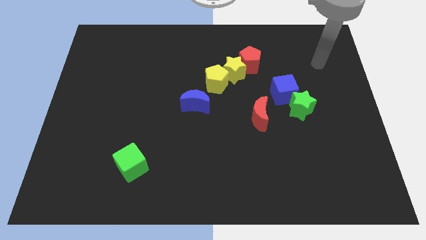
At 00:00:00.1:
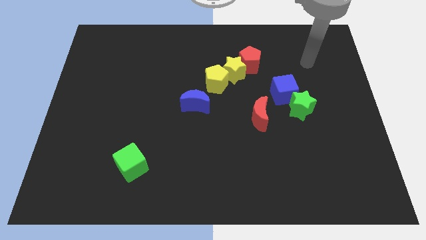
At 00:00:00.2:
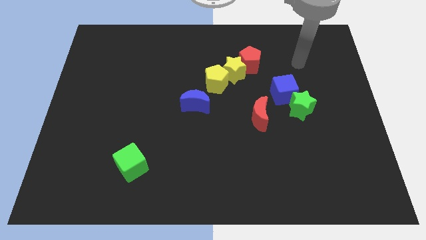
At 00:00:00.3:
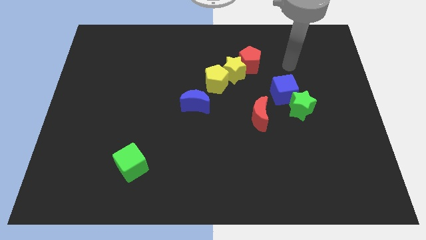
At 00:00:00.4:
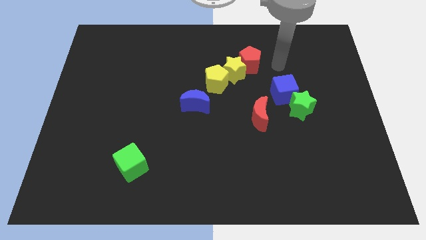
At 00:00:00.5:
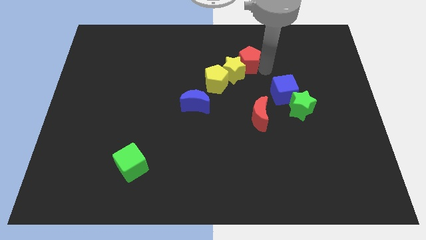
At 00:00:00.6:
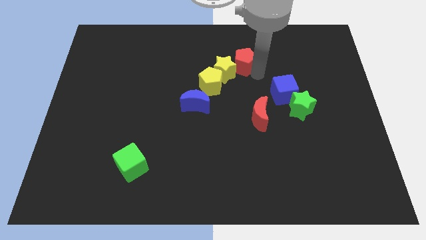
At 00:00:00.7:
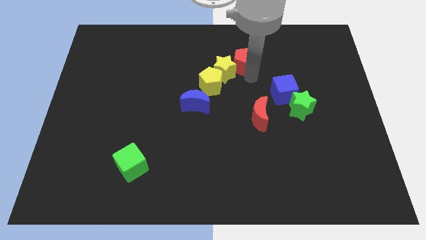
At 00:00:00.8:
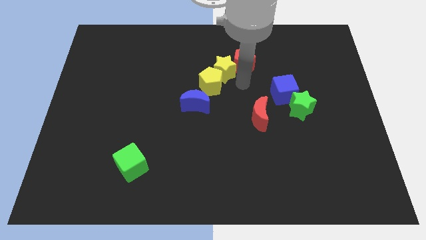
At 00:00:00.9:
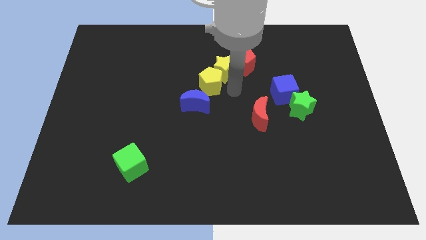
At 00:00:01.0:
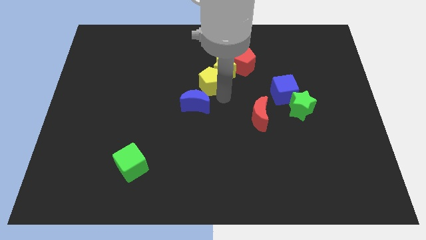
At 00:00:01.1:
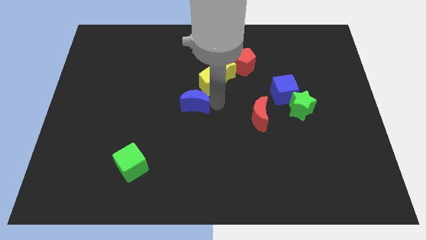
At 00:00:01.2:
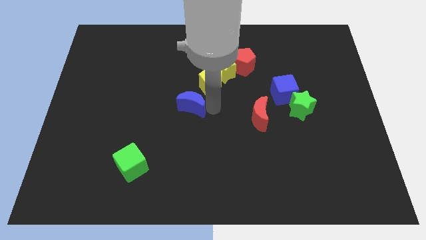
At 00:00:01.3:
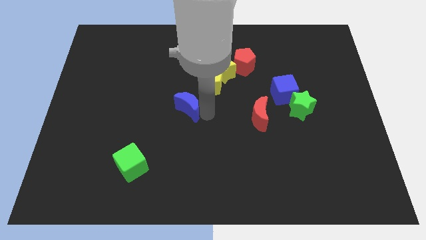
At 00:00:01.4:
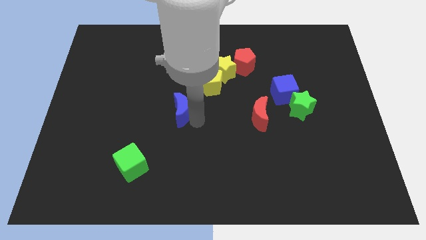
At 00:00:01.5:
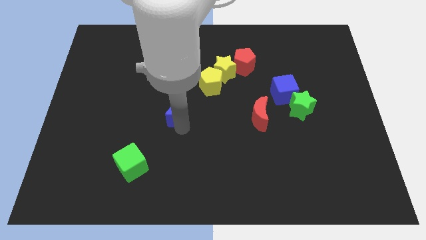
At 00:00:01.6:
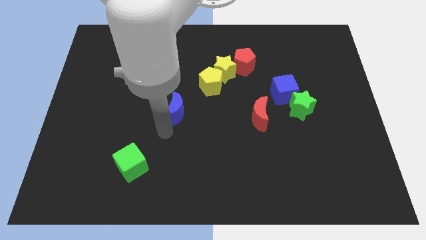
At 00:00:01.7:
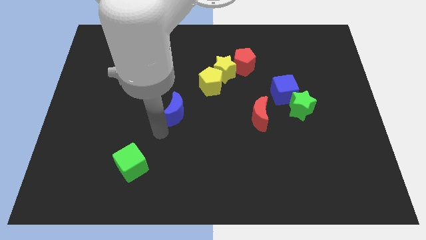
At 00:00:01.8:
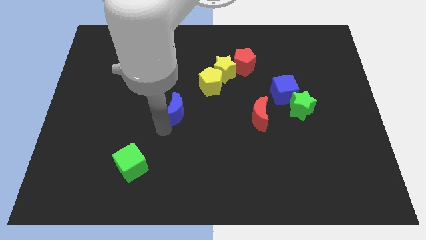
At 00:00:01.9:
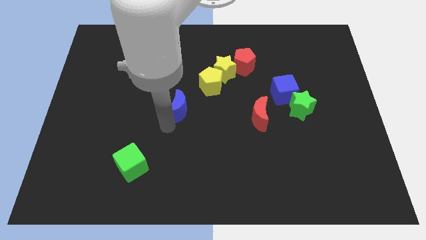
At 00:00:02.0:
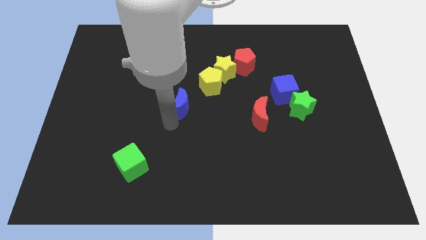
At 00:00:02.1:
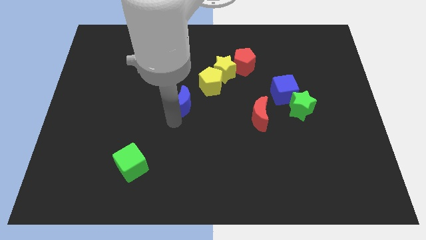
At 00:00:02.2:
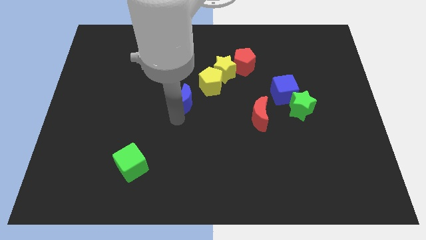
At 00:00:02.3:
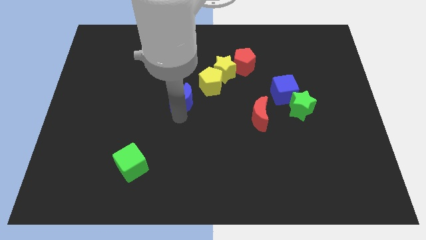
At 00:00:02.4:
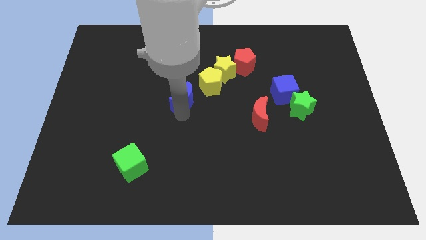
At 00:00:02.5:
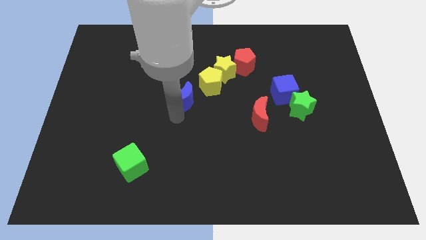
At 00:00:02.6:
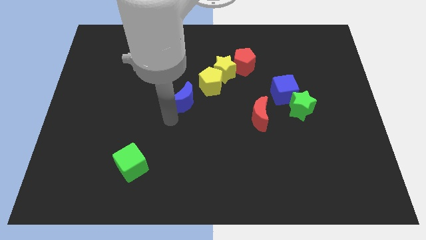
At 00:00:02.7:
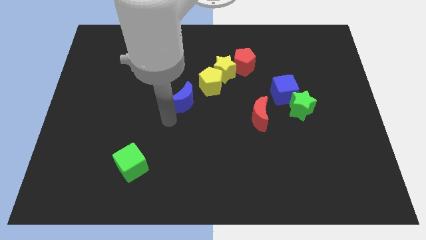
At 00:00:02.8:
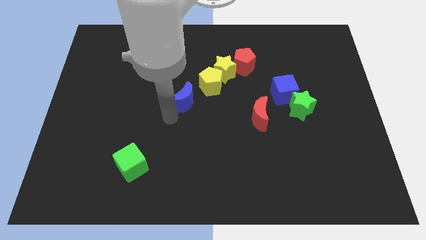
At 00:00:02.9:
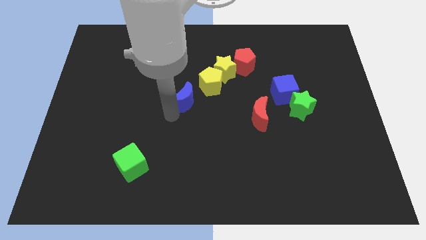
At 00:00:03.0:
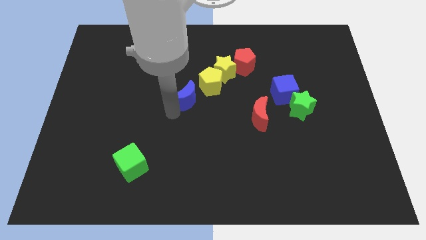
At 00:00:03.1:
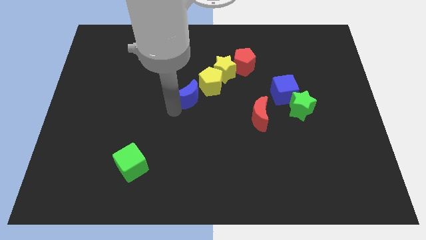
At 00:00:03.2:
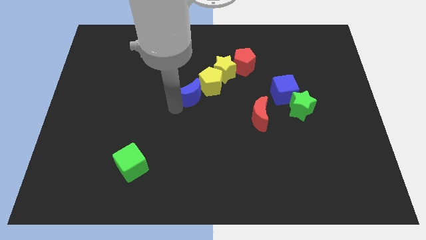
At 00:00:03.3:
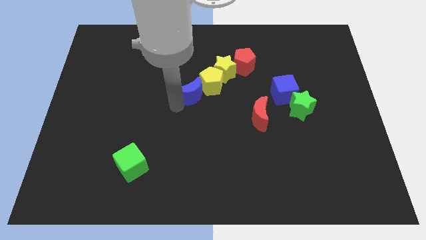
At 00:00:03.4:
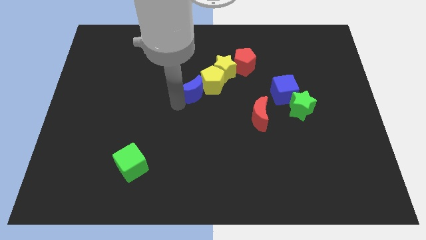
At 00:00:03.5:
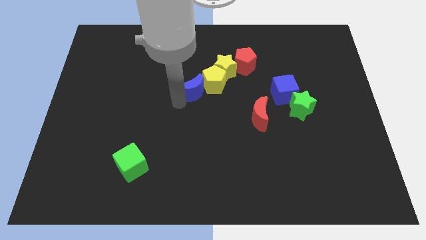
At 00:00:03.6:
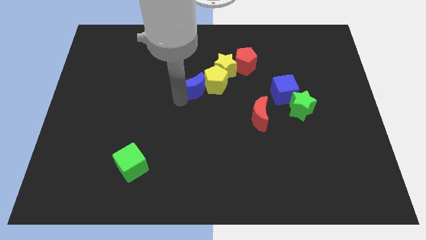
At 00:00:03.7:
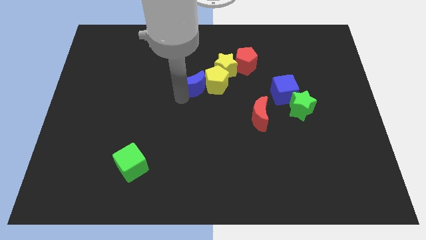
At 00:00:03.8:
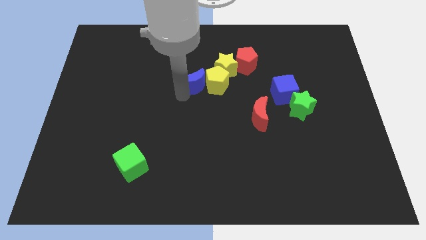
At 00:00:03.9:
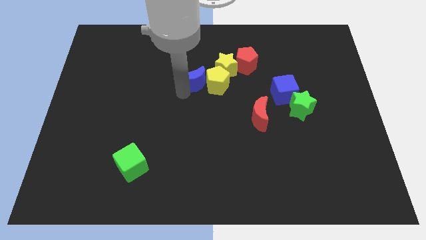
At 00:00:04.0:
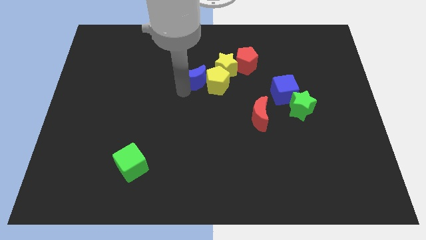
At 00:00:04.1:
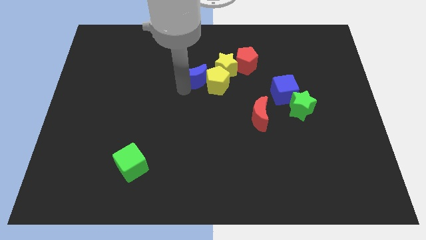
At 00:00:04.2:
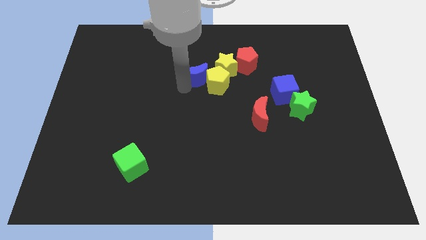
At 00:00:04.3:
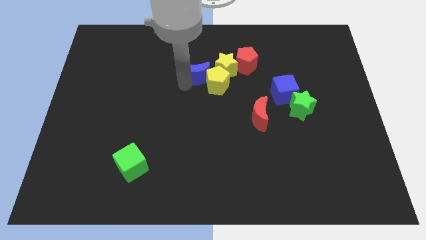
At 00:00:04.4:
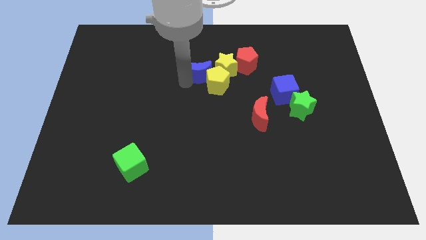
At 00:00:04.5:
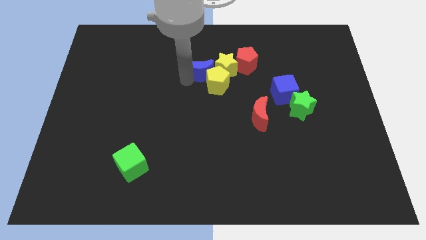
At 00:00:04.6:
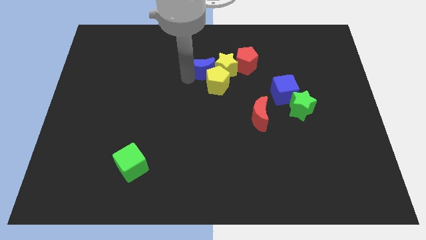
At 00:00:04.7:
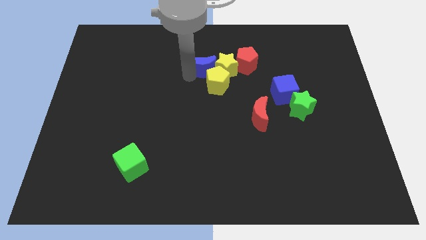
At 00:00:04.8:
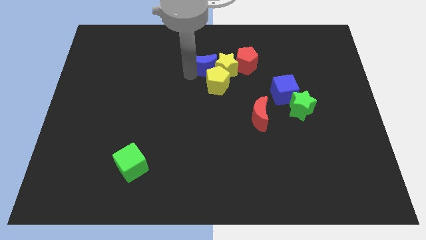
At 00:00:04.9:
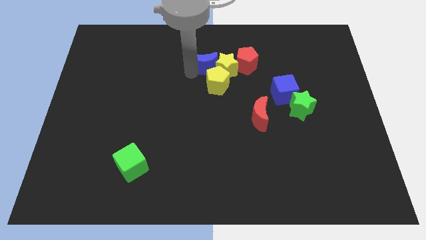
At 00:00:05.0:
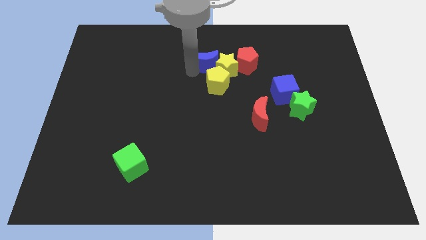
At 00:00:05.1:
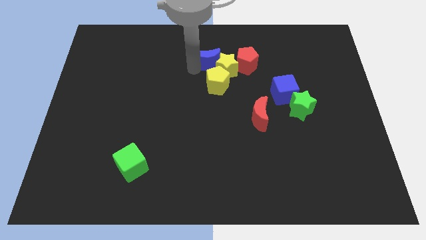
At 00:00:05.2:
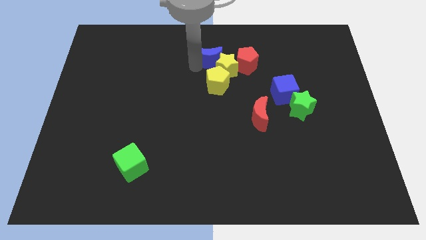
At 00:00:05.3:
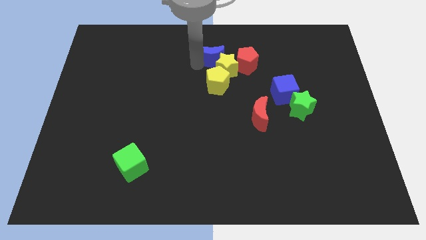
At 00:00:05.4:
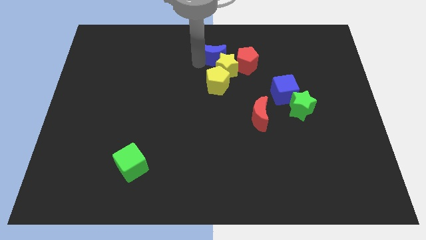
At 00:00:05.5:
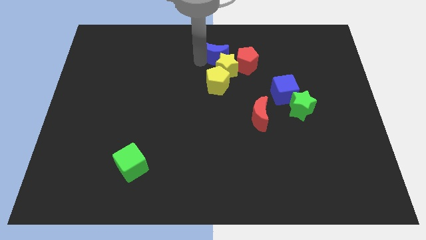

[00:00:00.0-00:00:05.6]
slide the blue moon to the top

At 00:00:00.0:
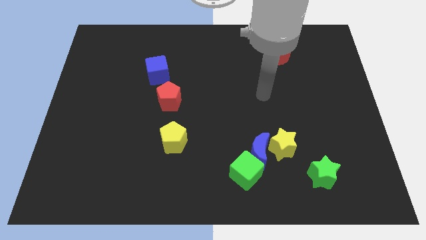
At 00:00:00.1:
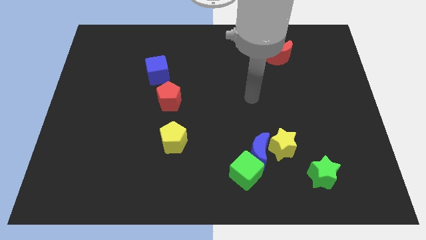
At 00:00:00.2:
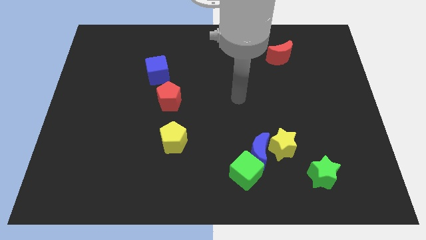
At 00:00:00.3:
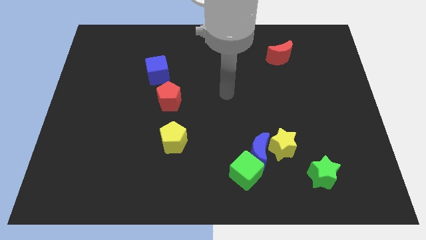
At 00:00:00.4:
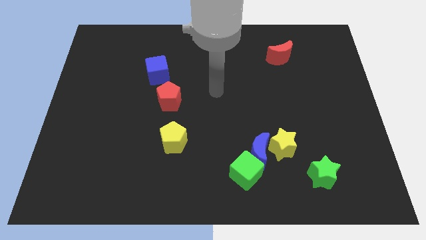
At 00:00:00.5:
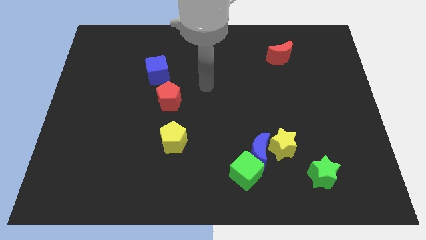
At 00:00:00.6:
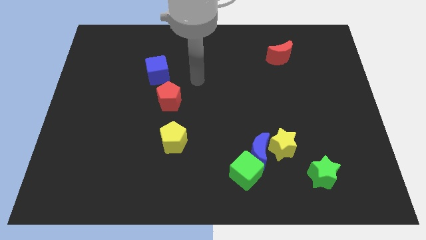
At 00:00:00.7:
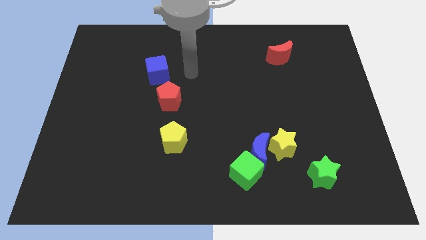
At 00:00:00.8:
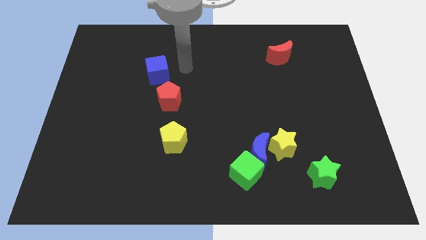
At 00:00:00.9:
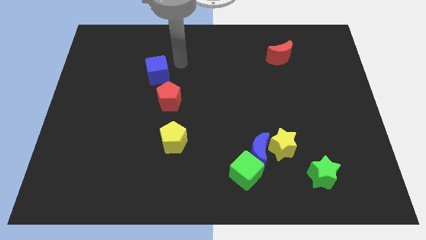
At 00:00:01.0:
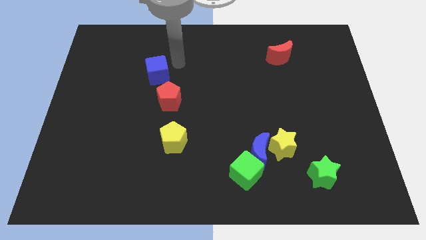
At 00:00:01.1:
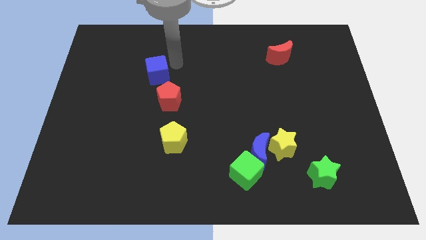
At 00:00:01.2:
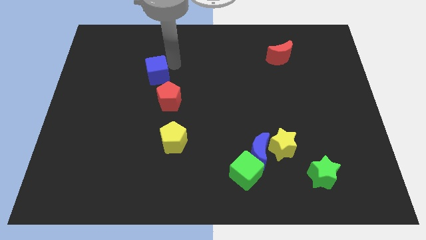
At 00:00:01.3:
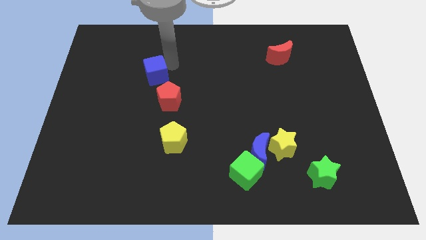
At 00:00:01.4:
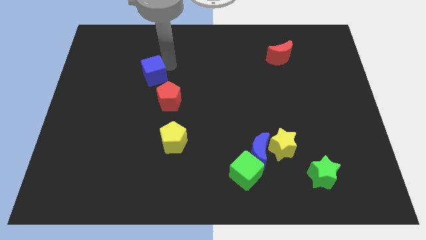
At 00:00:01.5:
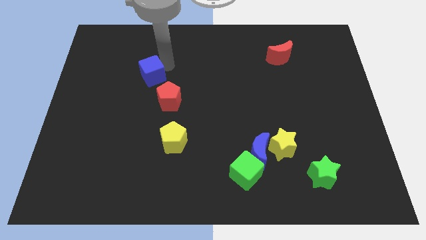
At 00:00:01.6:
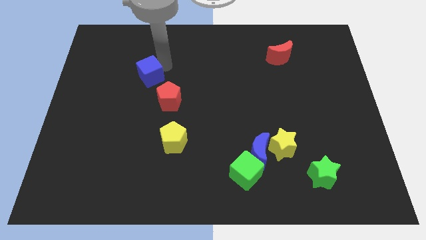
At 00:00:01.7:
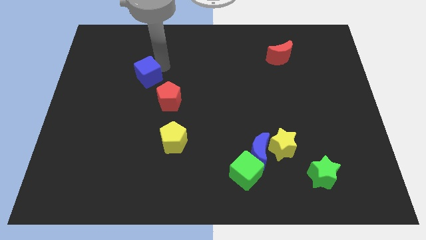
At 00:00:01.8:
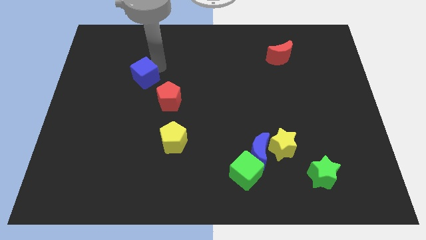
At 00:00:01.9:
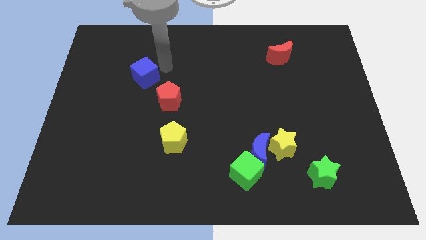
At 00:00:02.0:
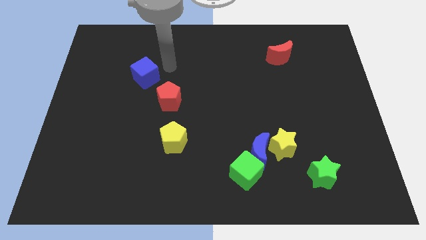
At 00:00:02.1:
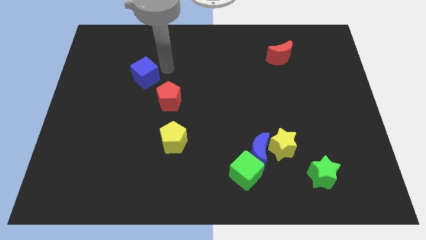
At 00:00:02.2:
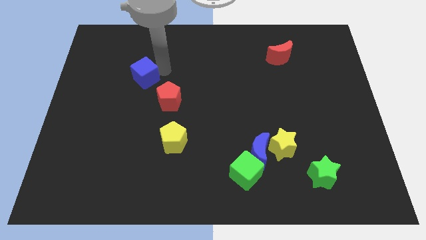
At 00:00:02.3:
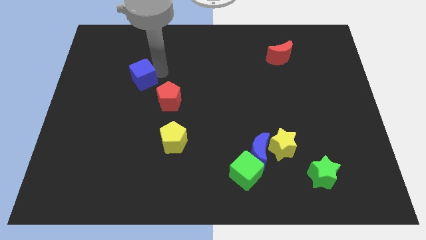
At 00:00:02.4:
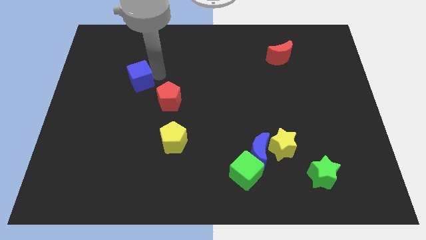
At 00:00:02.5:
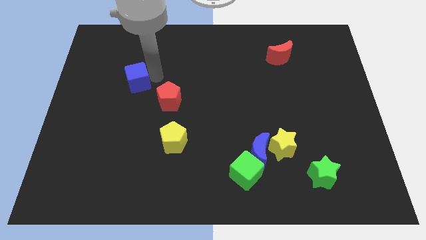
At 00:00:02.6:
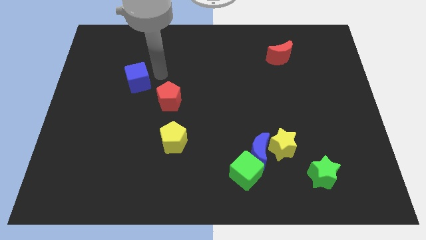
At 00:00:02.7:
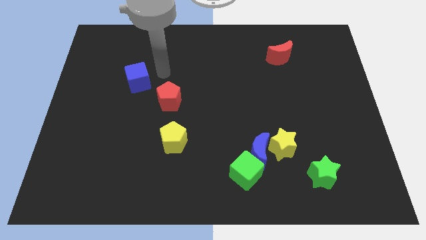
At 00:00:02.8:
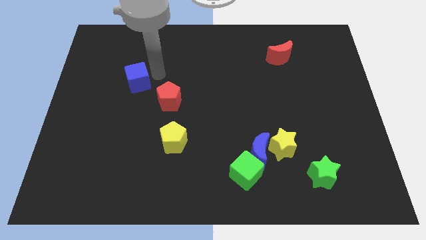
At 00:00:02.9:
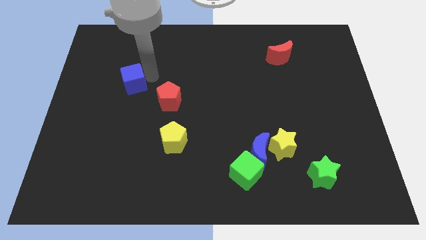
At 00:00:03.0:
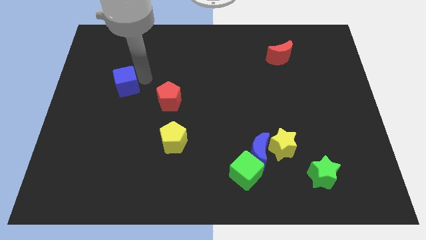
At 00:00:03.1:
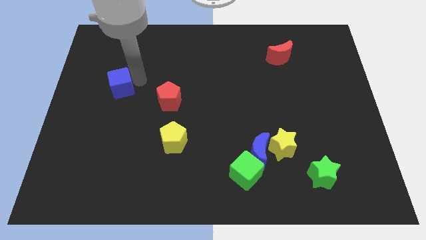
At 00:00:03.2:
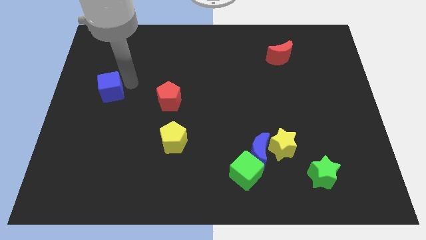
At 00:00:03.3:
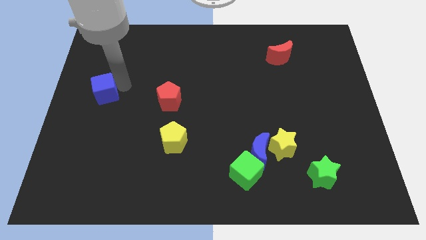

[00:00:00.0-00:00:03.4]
put the blue cube to the center left
